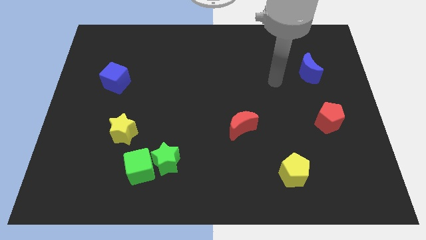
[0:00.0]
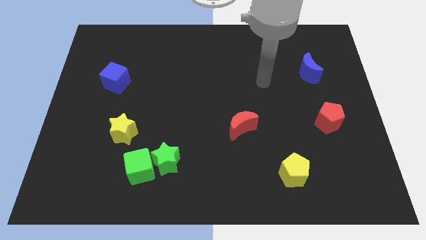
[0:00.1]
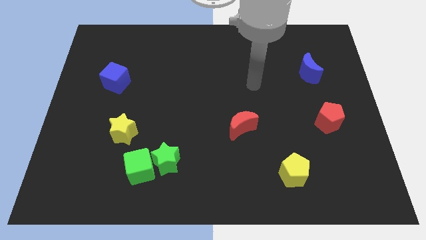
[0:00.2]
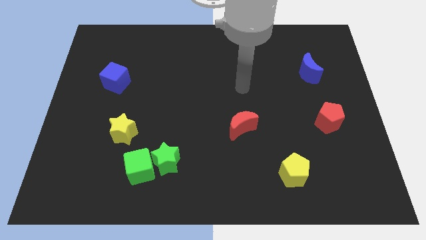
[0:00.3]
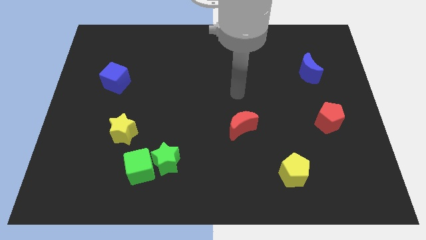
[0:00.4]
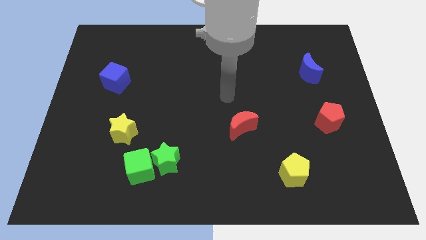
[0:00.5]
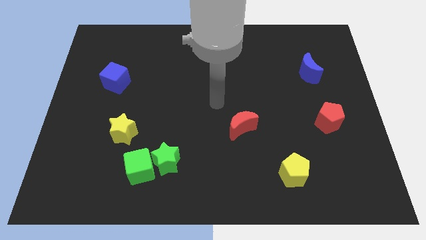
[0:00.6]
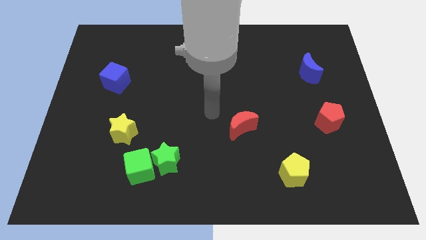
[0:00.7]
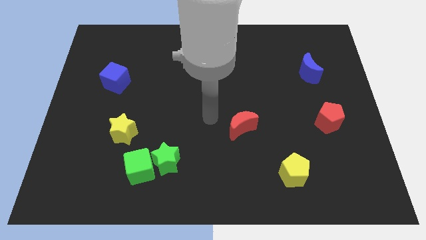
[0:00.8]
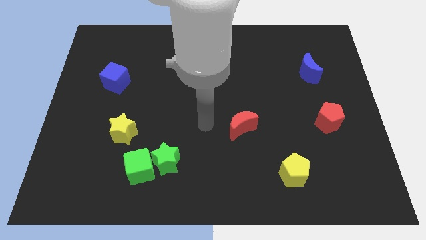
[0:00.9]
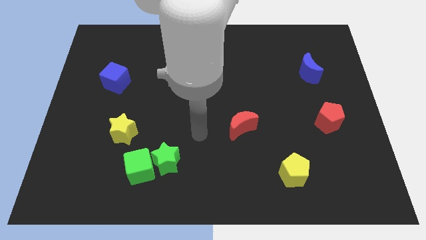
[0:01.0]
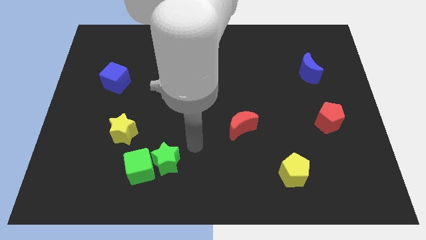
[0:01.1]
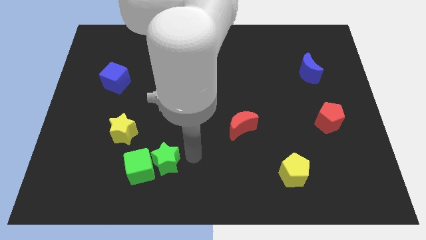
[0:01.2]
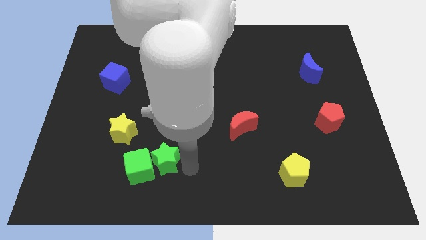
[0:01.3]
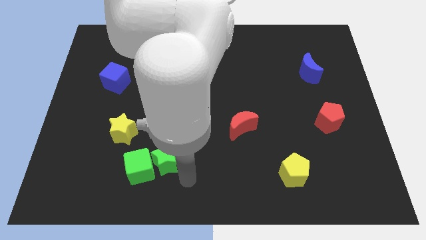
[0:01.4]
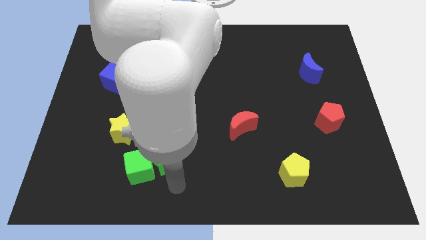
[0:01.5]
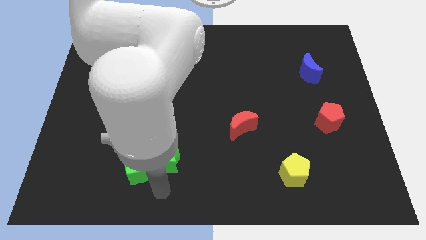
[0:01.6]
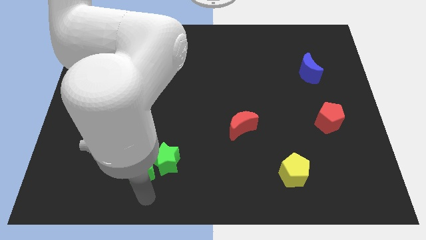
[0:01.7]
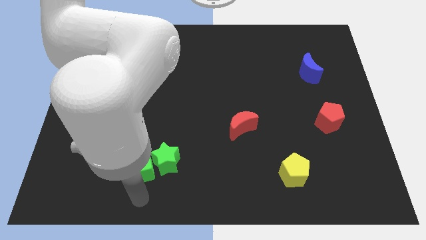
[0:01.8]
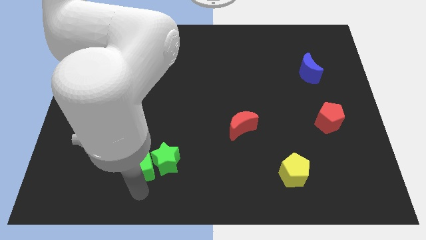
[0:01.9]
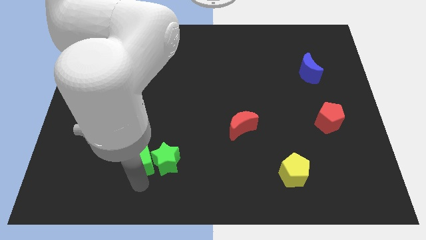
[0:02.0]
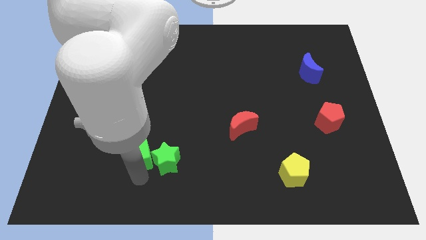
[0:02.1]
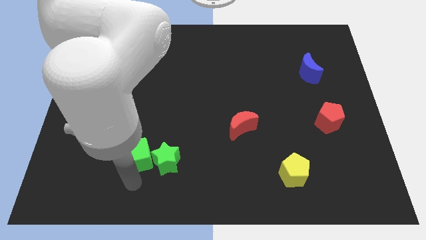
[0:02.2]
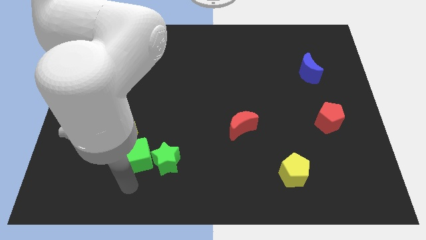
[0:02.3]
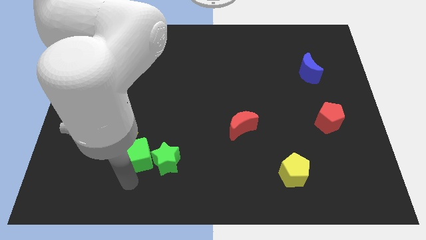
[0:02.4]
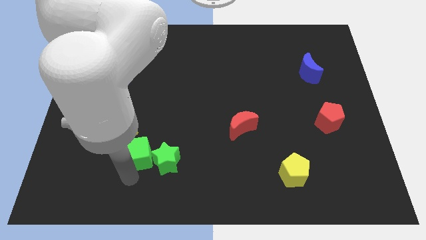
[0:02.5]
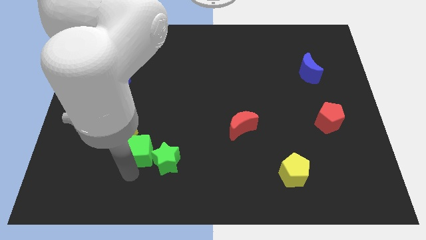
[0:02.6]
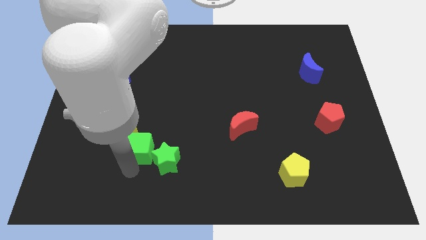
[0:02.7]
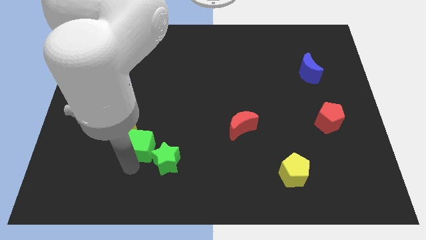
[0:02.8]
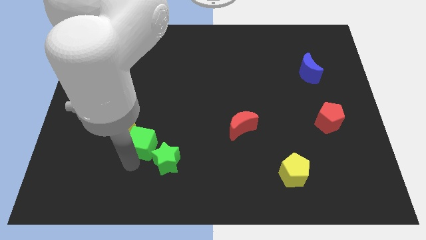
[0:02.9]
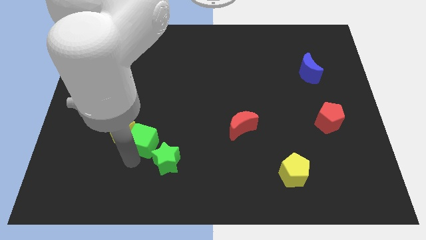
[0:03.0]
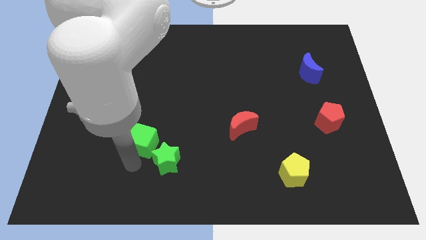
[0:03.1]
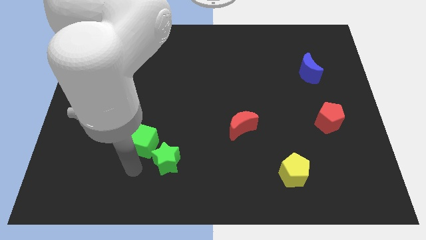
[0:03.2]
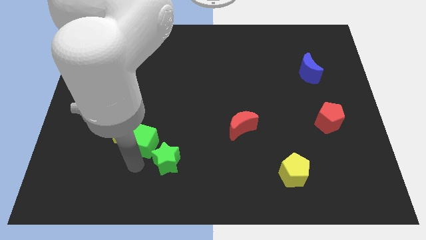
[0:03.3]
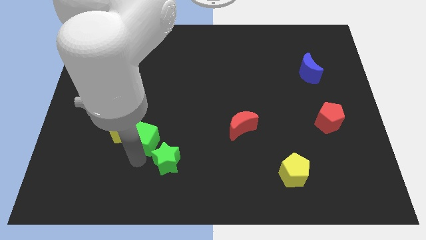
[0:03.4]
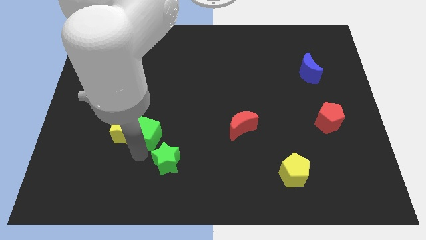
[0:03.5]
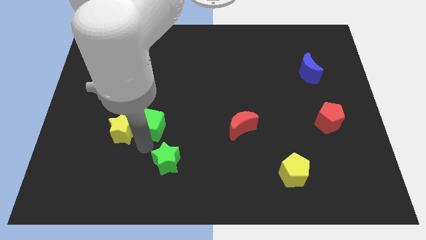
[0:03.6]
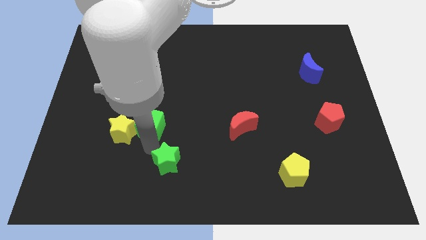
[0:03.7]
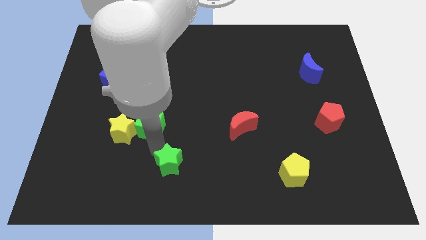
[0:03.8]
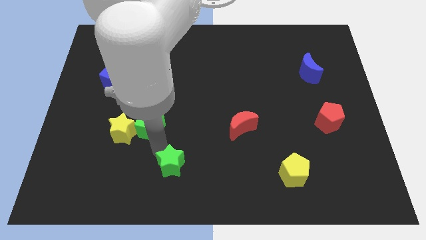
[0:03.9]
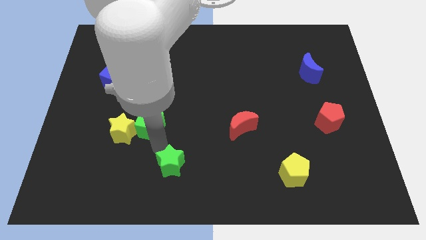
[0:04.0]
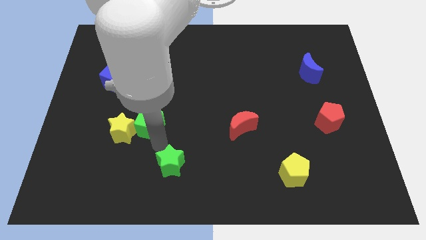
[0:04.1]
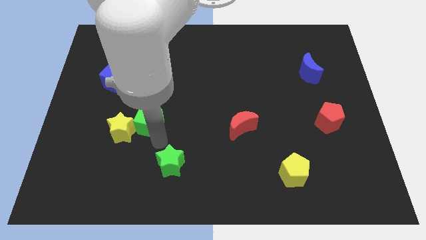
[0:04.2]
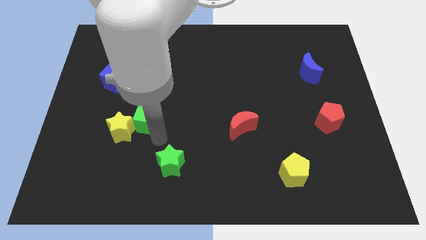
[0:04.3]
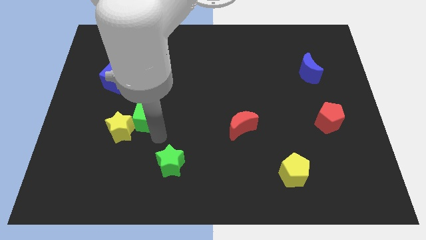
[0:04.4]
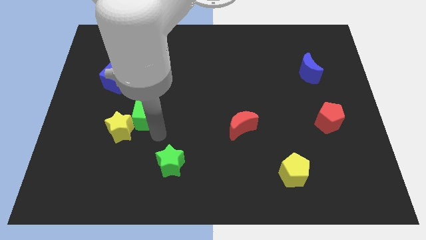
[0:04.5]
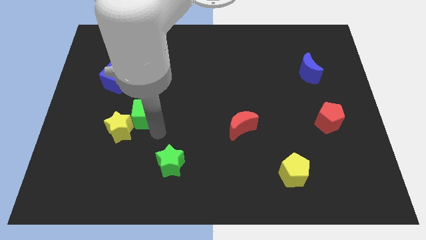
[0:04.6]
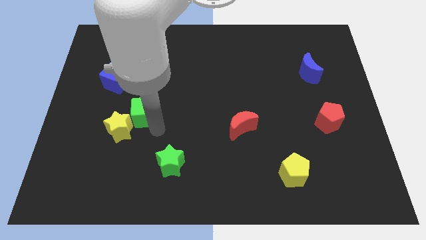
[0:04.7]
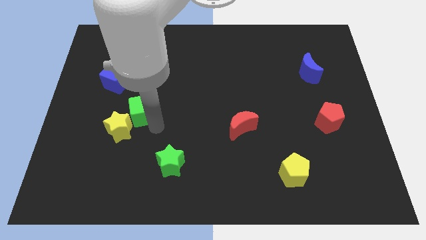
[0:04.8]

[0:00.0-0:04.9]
push the green cube to the bottom right of the blue cube

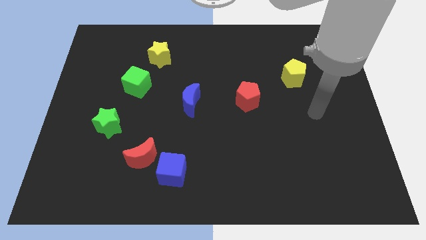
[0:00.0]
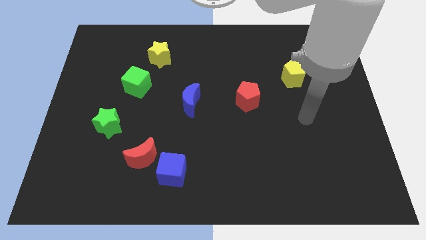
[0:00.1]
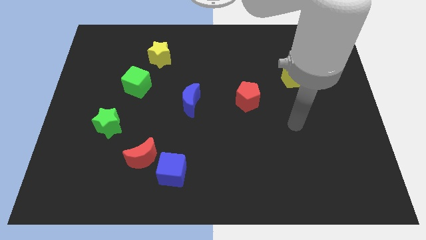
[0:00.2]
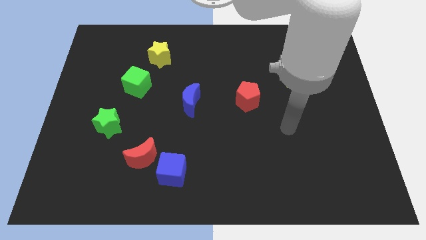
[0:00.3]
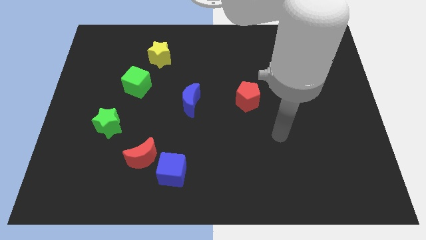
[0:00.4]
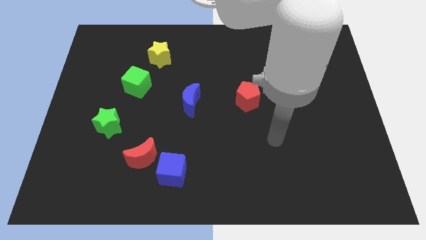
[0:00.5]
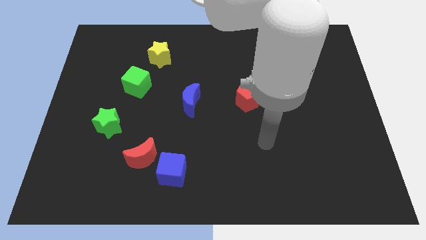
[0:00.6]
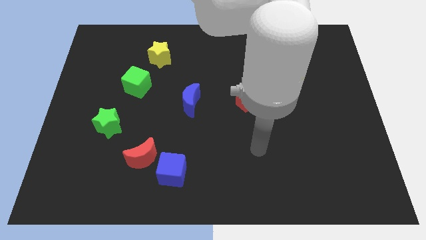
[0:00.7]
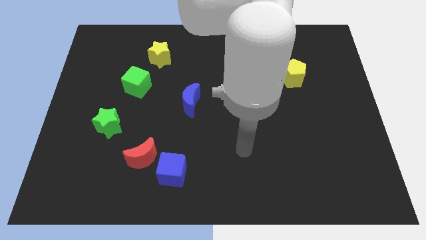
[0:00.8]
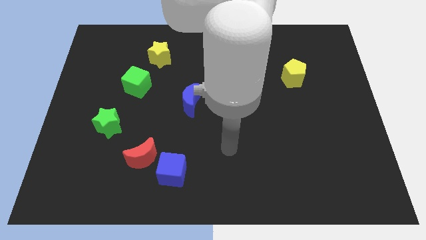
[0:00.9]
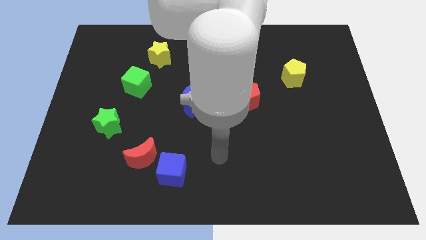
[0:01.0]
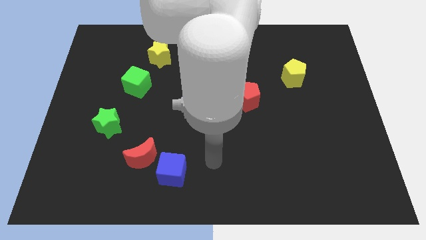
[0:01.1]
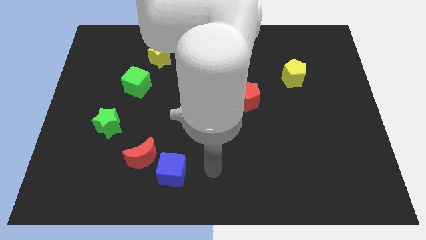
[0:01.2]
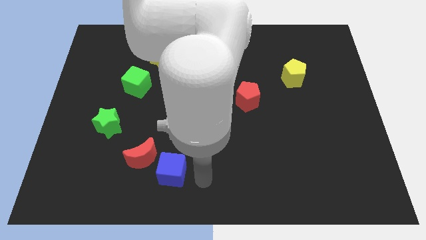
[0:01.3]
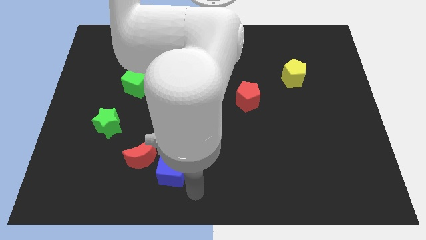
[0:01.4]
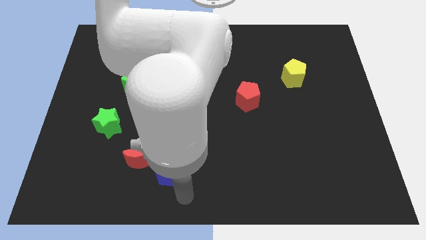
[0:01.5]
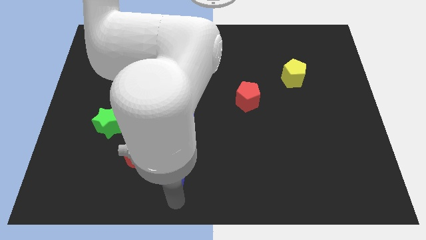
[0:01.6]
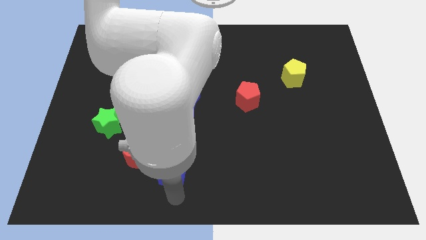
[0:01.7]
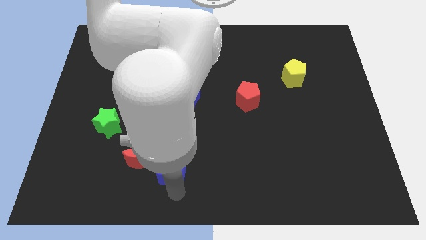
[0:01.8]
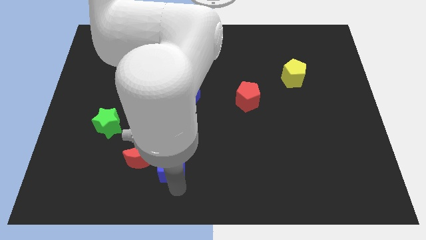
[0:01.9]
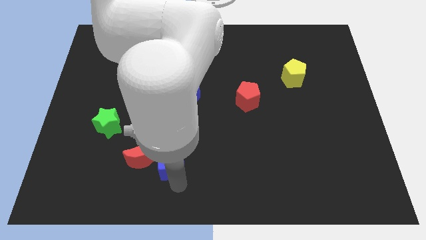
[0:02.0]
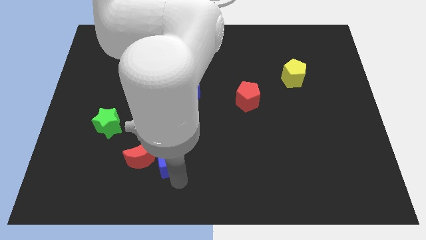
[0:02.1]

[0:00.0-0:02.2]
move the blue cube to the top right of the red moon

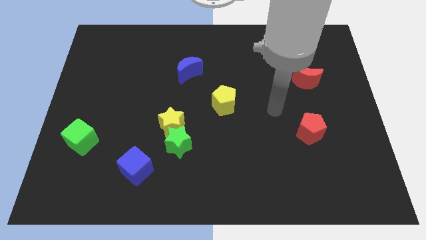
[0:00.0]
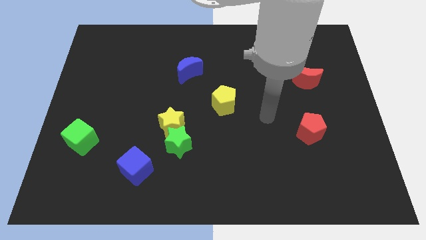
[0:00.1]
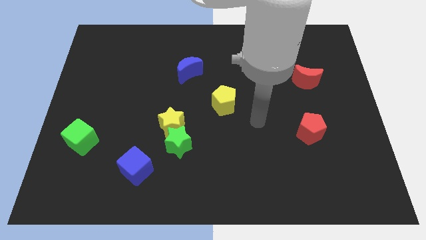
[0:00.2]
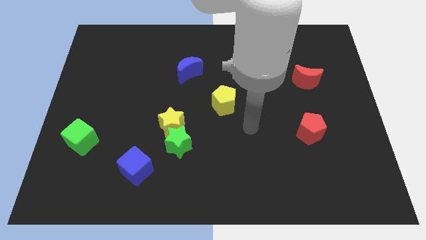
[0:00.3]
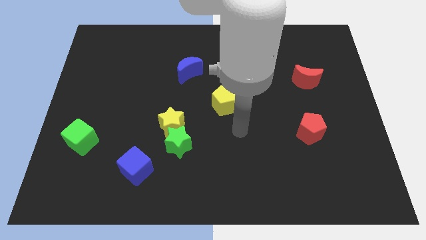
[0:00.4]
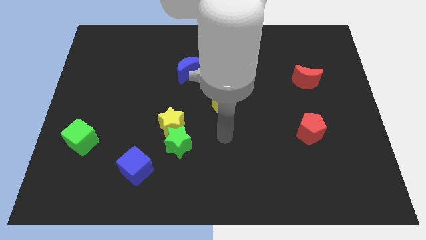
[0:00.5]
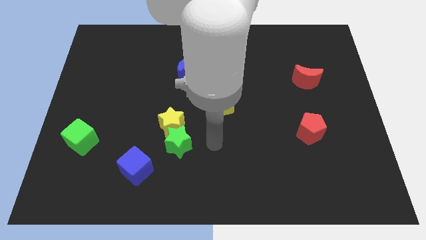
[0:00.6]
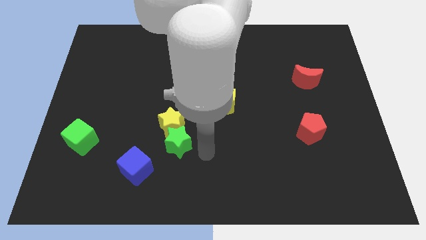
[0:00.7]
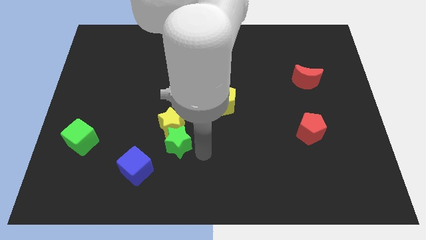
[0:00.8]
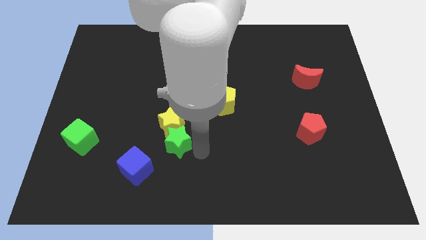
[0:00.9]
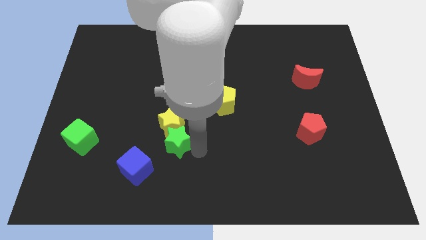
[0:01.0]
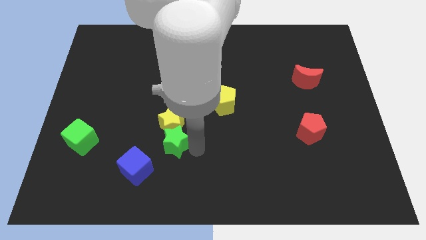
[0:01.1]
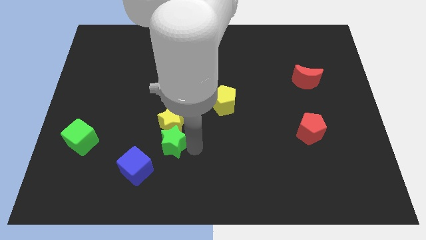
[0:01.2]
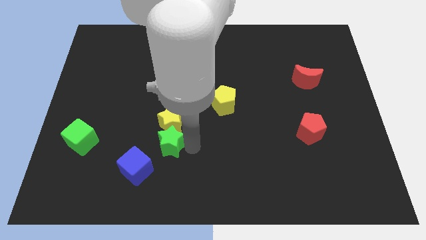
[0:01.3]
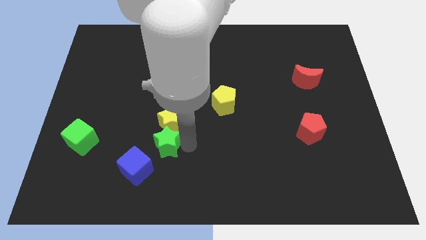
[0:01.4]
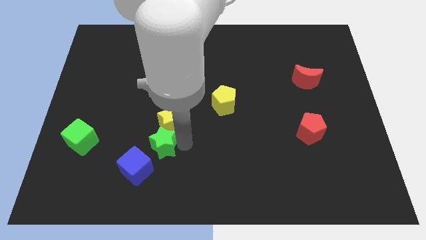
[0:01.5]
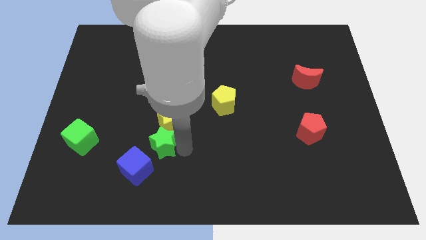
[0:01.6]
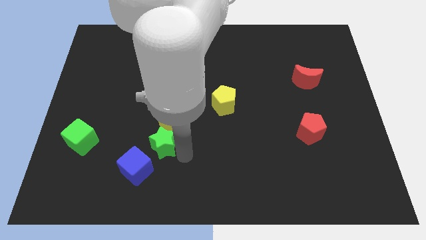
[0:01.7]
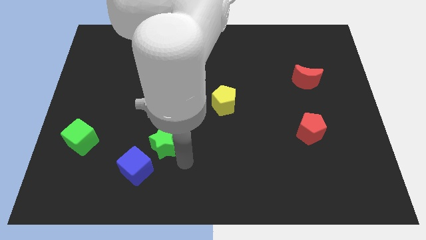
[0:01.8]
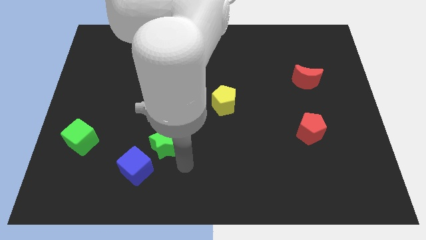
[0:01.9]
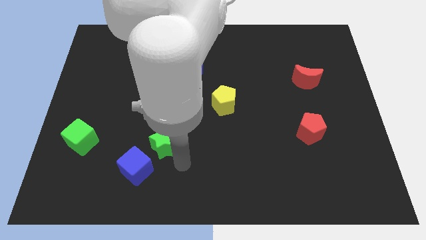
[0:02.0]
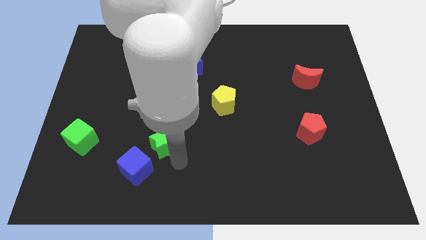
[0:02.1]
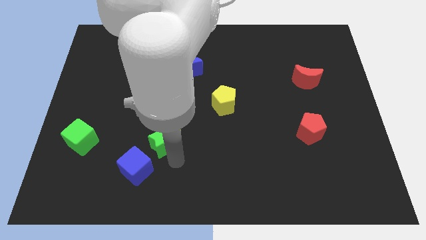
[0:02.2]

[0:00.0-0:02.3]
move the green star above the blue cube
